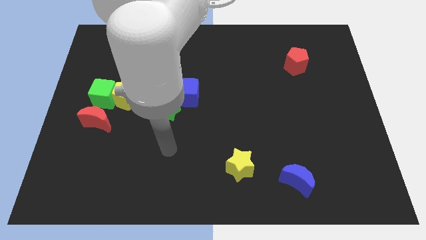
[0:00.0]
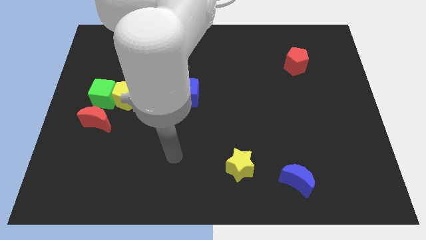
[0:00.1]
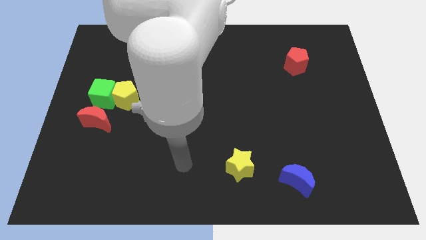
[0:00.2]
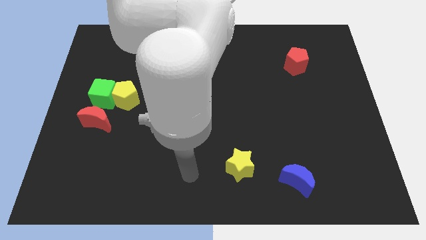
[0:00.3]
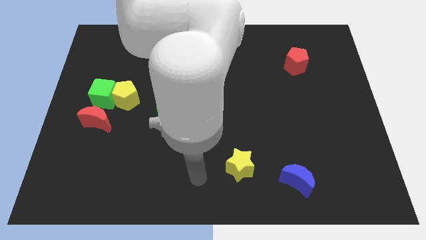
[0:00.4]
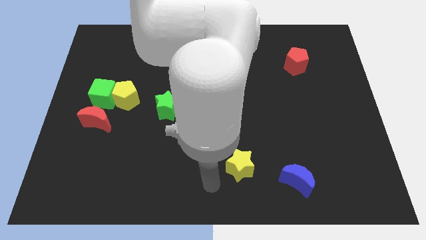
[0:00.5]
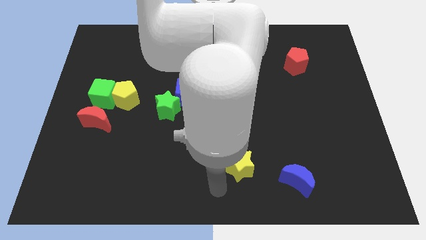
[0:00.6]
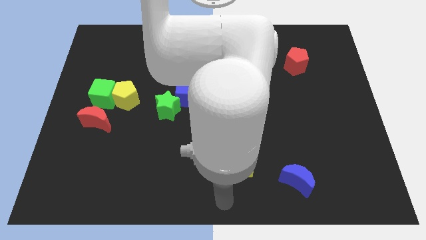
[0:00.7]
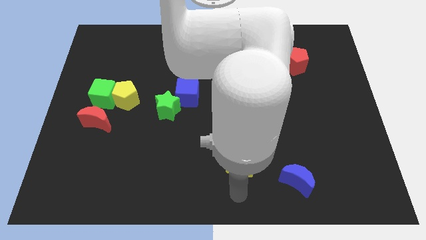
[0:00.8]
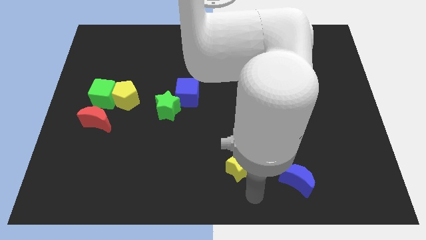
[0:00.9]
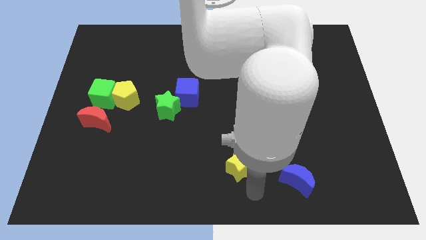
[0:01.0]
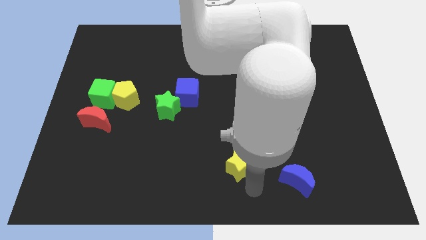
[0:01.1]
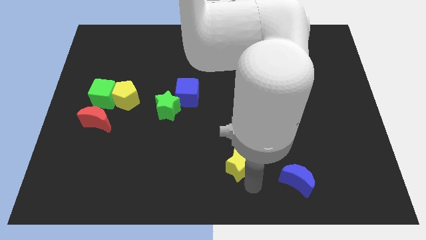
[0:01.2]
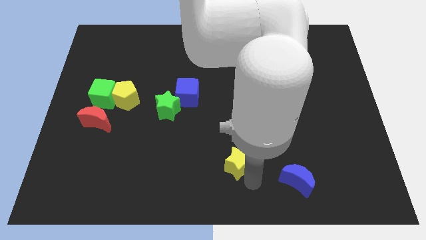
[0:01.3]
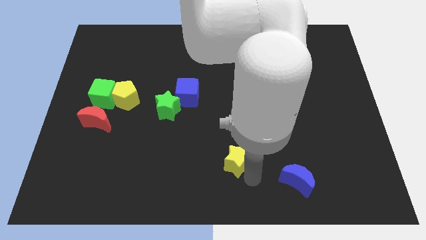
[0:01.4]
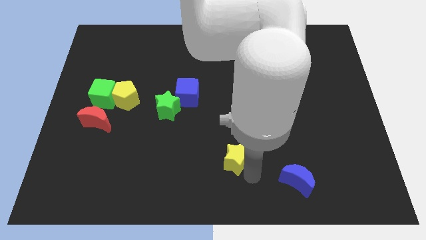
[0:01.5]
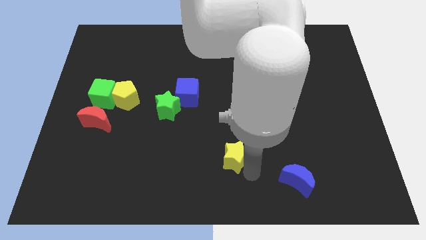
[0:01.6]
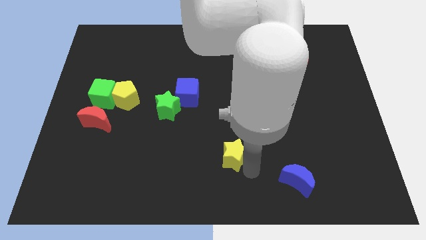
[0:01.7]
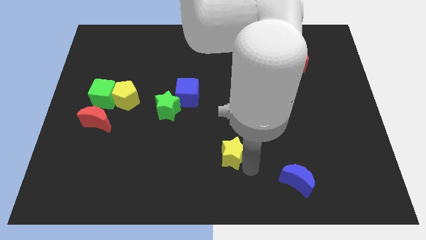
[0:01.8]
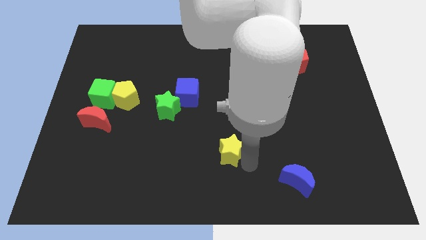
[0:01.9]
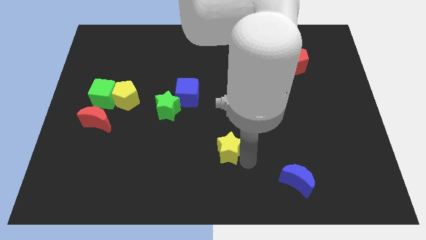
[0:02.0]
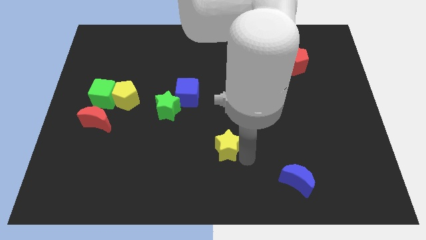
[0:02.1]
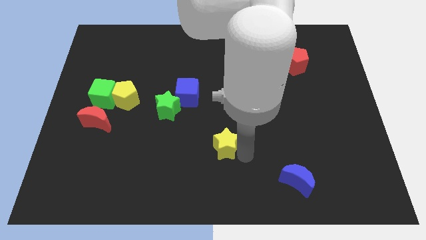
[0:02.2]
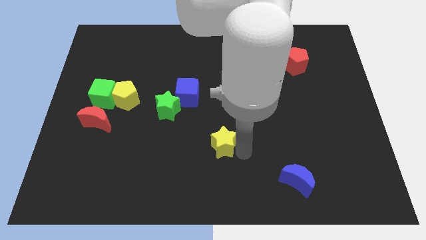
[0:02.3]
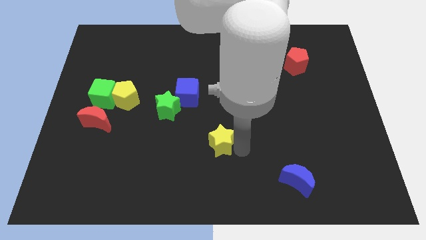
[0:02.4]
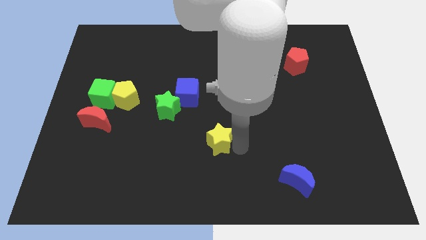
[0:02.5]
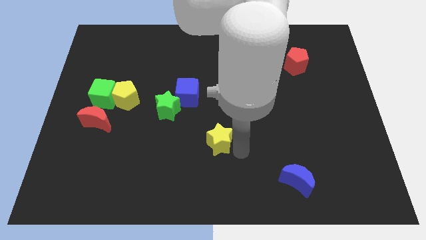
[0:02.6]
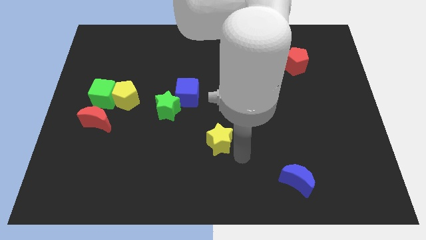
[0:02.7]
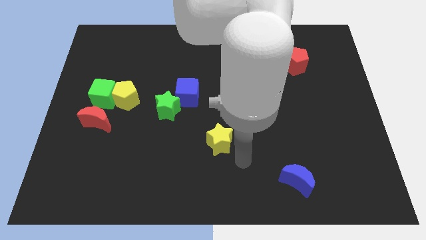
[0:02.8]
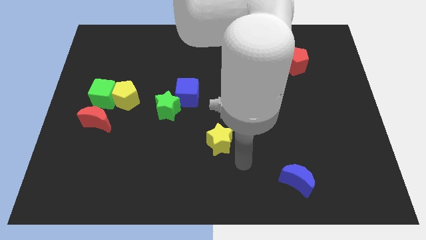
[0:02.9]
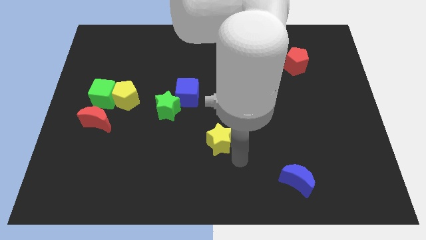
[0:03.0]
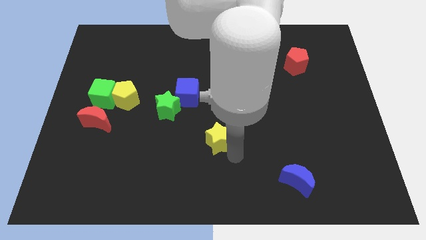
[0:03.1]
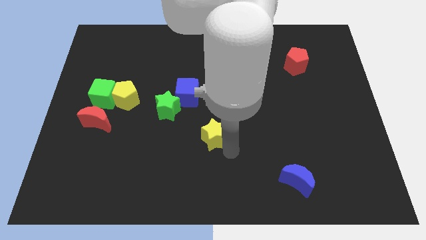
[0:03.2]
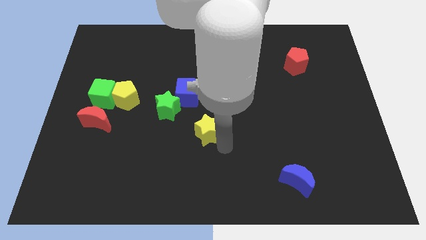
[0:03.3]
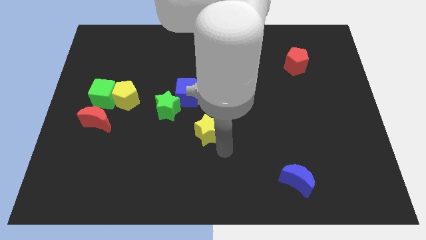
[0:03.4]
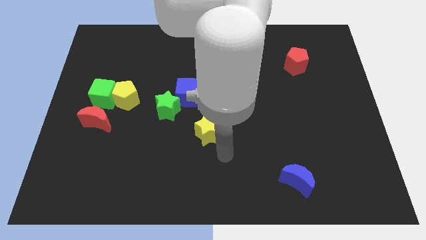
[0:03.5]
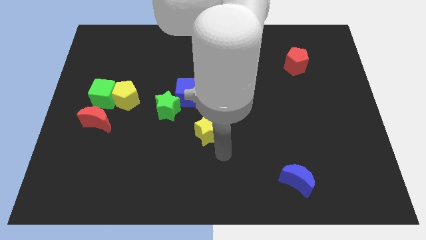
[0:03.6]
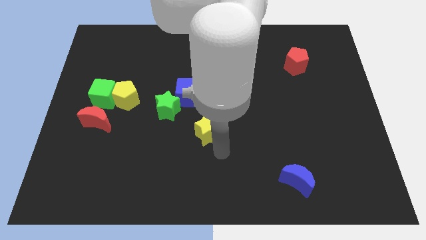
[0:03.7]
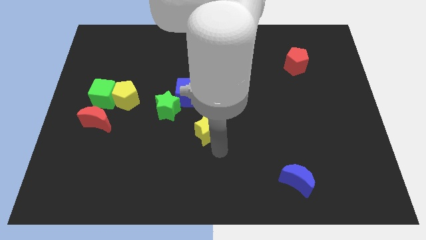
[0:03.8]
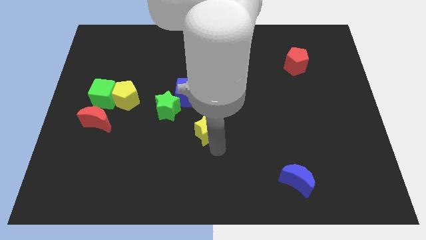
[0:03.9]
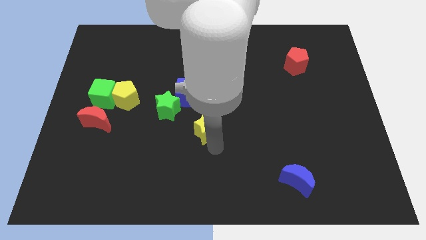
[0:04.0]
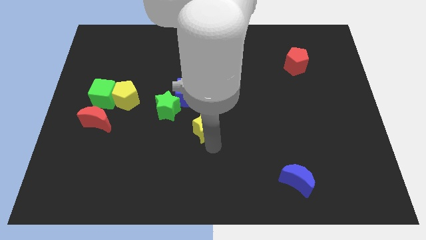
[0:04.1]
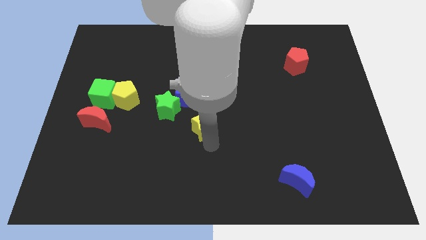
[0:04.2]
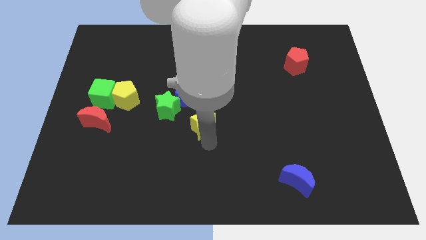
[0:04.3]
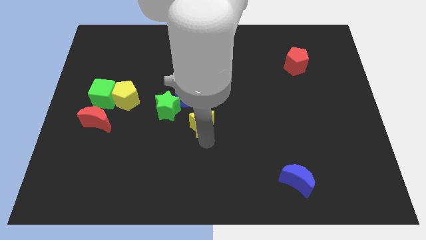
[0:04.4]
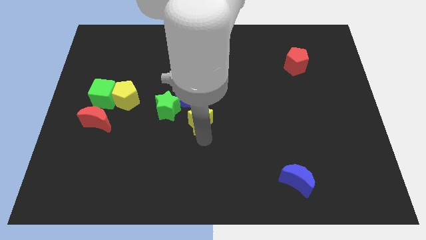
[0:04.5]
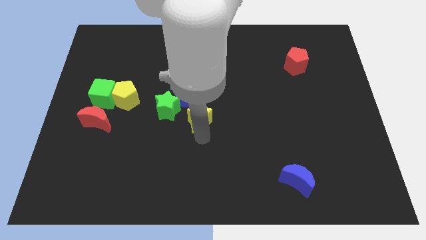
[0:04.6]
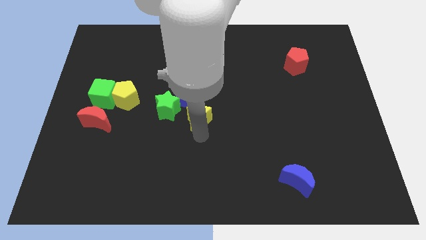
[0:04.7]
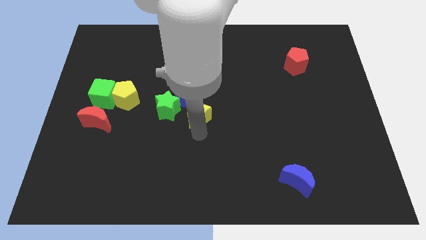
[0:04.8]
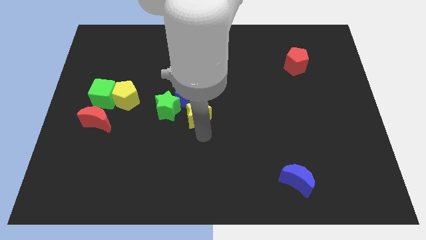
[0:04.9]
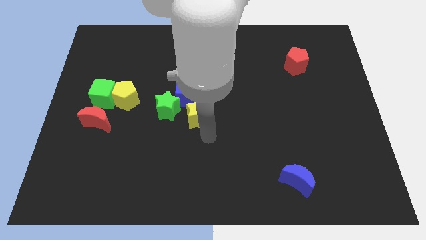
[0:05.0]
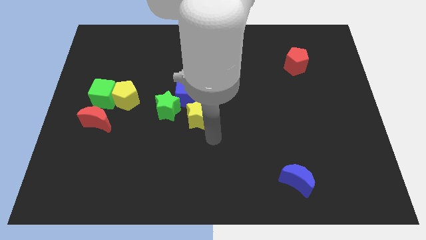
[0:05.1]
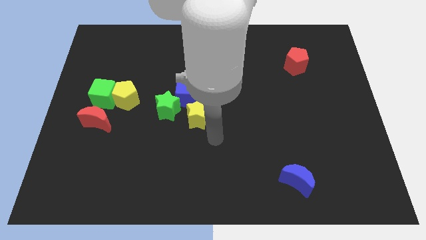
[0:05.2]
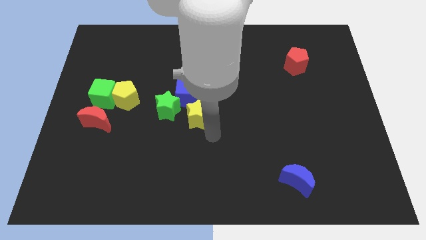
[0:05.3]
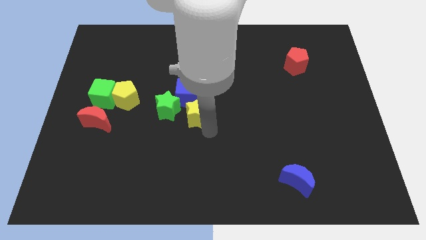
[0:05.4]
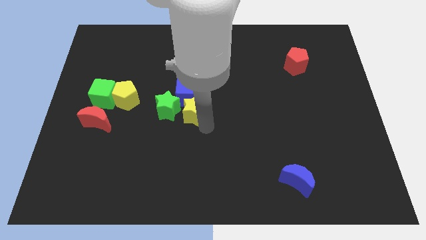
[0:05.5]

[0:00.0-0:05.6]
put the yellow star close to the blue cube

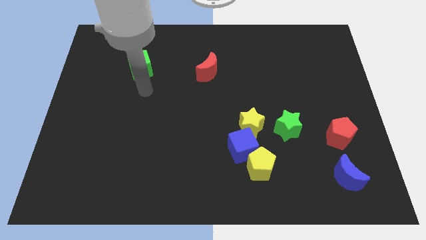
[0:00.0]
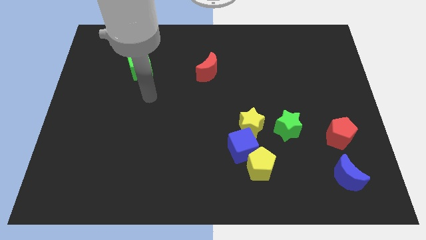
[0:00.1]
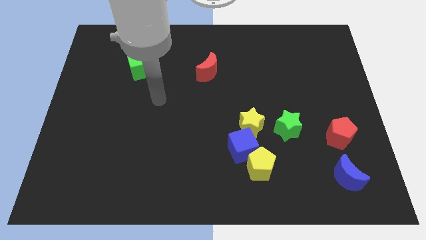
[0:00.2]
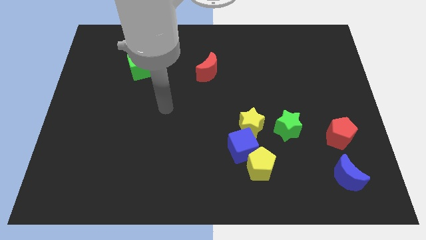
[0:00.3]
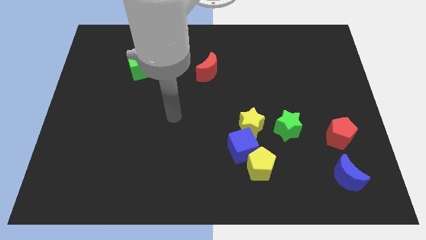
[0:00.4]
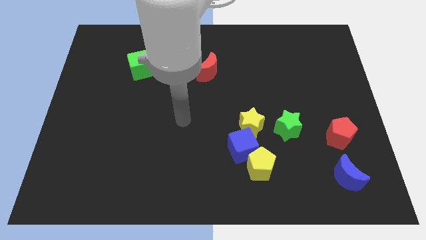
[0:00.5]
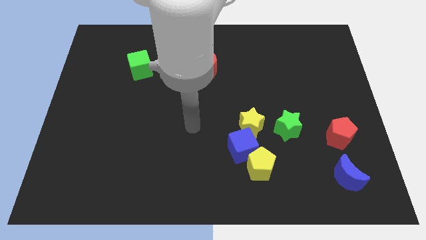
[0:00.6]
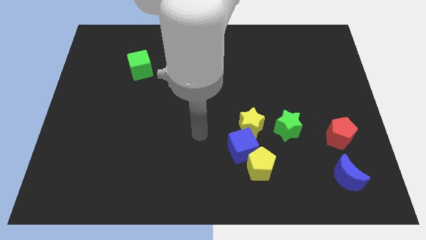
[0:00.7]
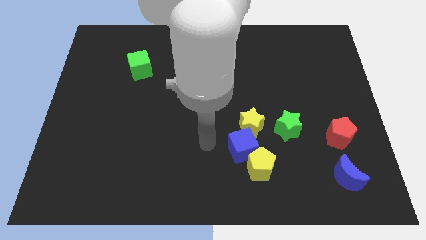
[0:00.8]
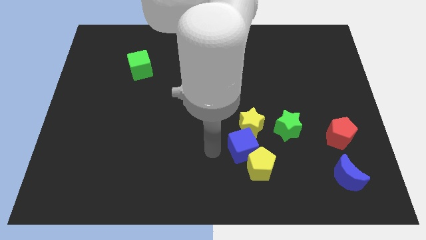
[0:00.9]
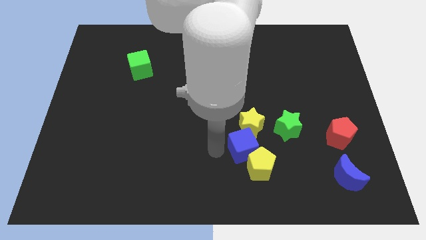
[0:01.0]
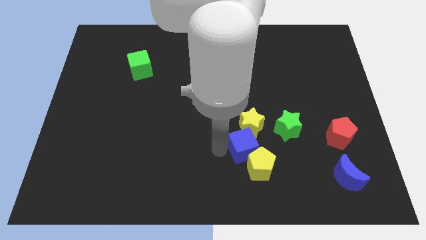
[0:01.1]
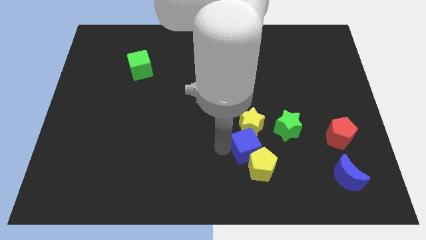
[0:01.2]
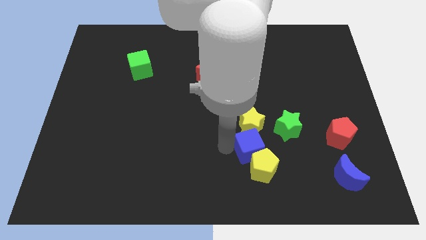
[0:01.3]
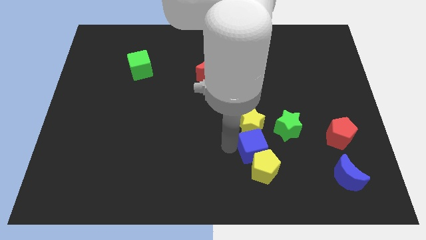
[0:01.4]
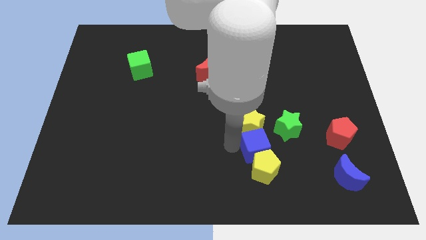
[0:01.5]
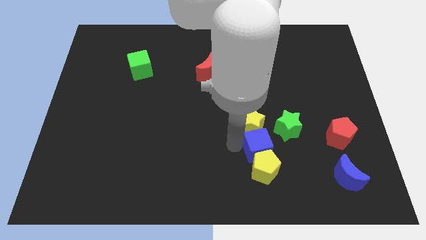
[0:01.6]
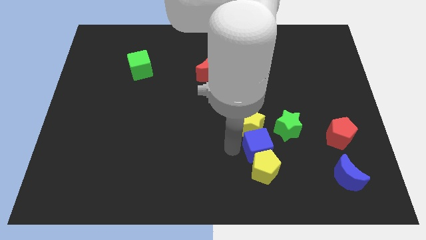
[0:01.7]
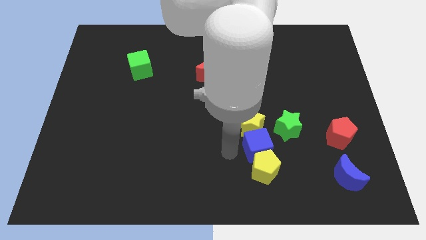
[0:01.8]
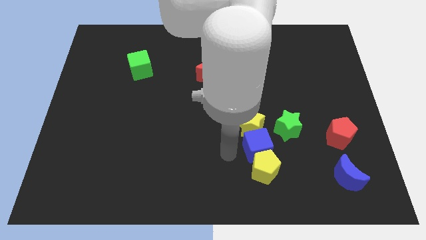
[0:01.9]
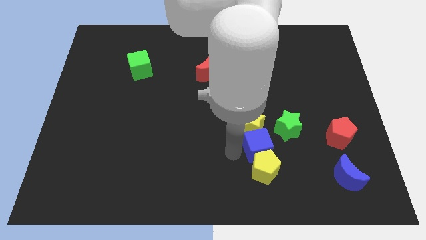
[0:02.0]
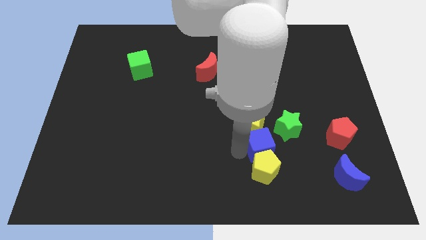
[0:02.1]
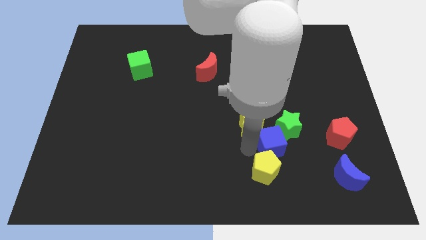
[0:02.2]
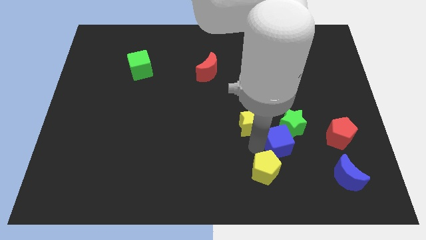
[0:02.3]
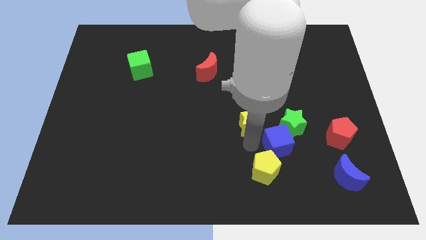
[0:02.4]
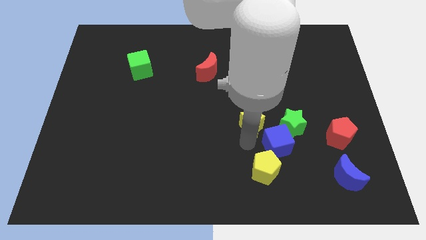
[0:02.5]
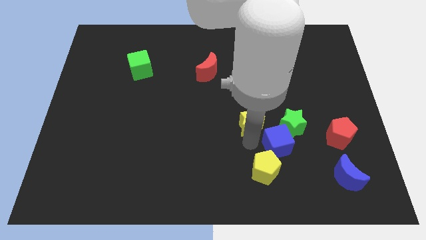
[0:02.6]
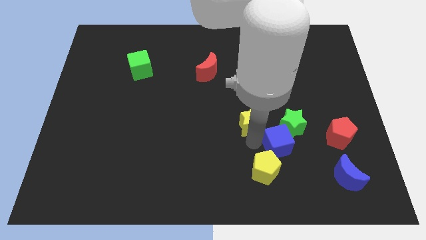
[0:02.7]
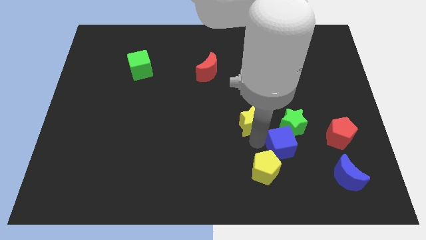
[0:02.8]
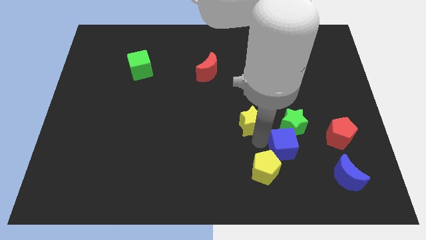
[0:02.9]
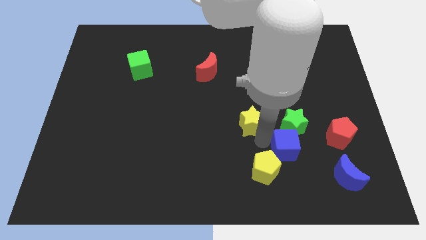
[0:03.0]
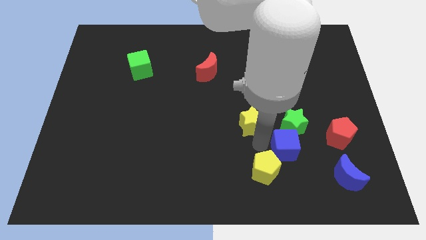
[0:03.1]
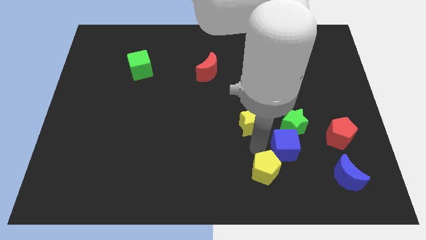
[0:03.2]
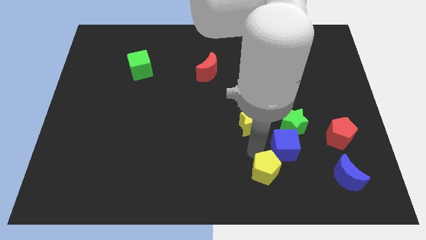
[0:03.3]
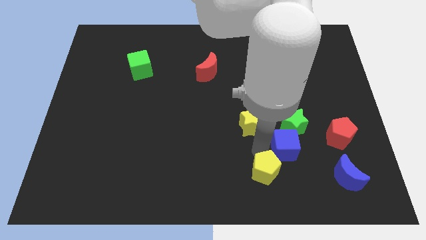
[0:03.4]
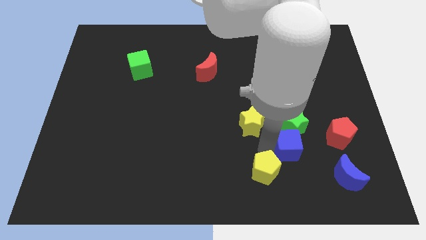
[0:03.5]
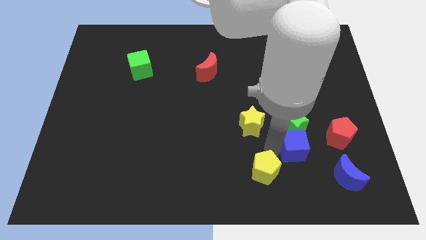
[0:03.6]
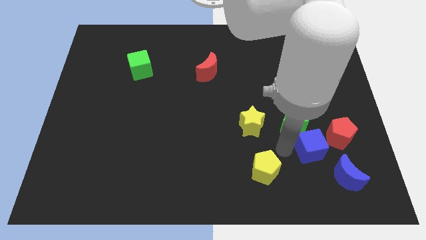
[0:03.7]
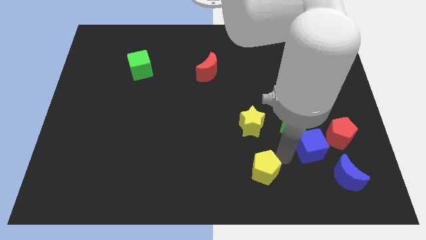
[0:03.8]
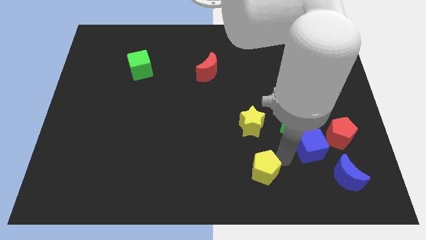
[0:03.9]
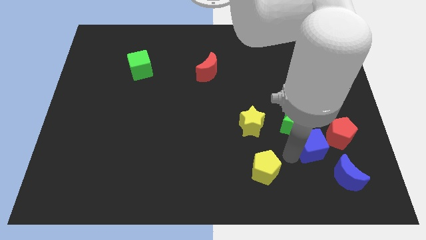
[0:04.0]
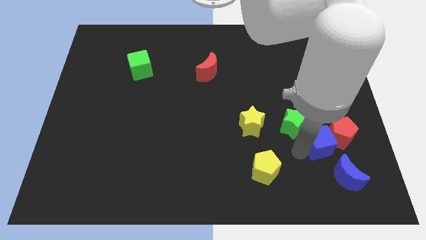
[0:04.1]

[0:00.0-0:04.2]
move the blue cube close to the red pentagon
